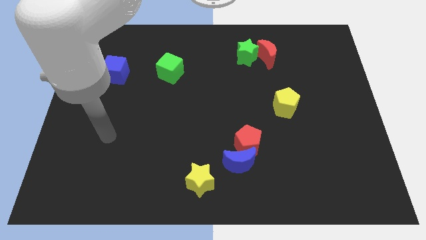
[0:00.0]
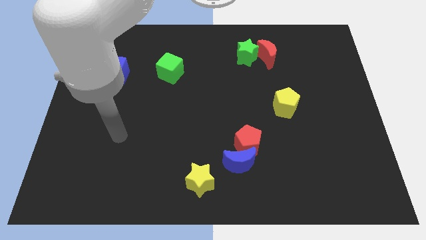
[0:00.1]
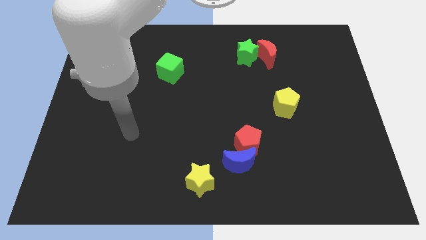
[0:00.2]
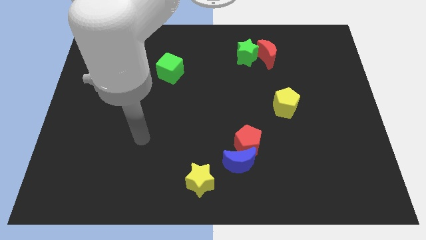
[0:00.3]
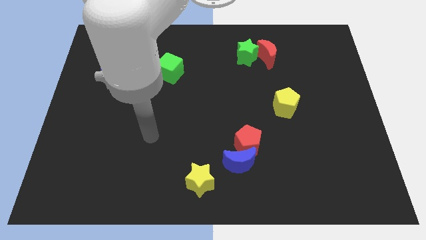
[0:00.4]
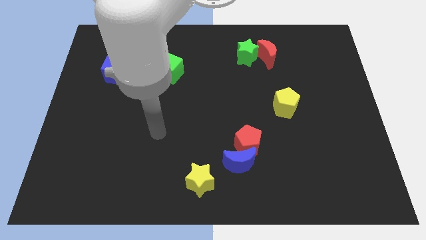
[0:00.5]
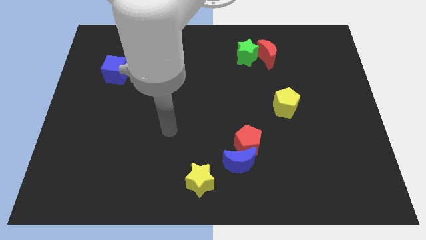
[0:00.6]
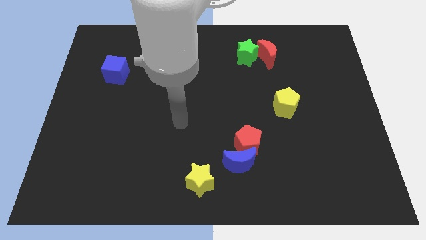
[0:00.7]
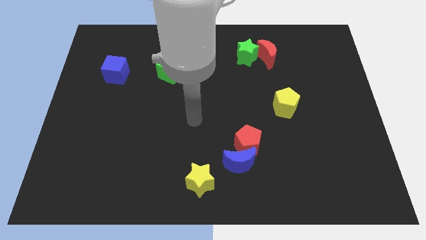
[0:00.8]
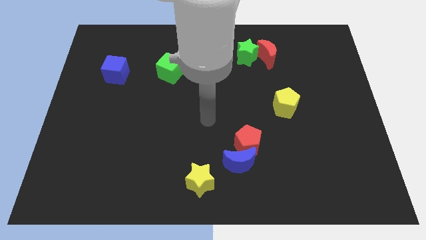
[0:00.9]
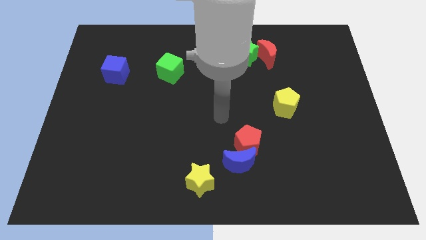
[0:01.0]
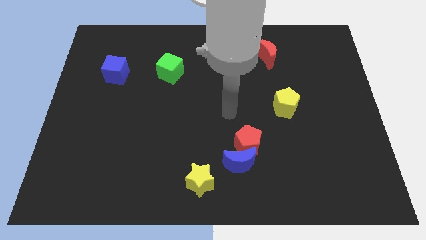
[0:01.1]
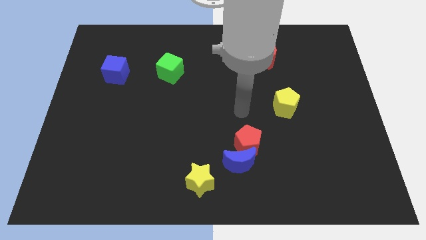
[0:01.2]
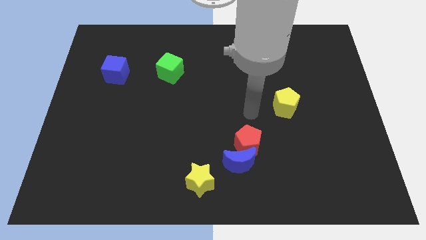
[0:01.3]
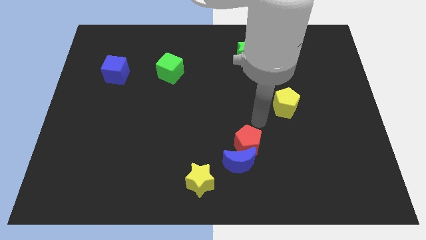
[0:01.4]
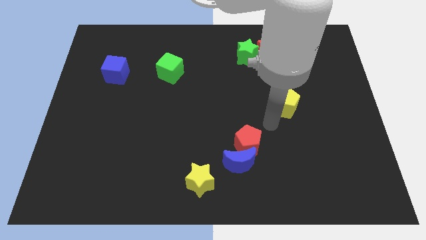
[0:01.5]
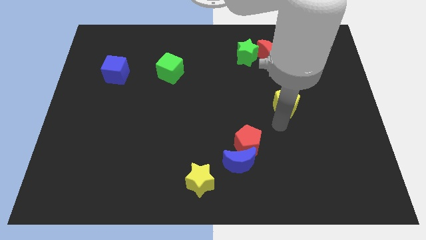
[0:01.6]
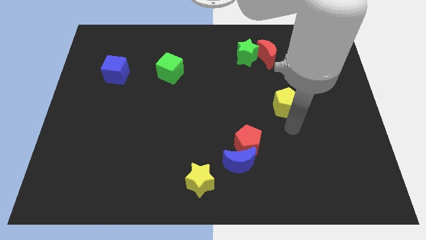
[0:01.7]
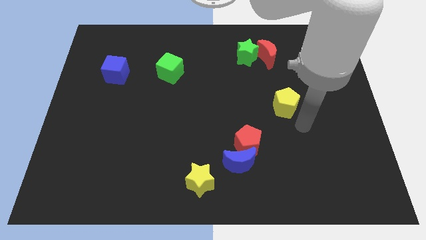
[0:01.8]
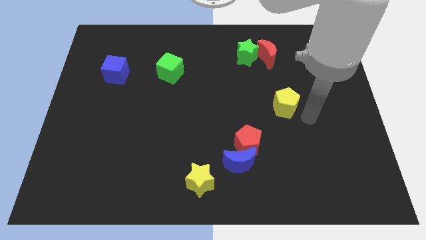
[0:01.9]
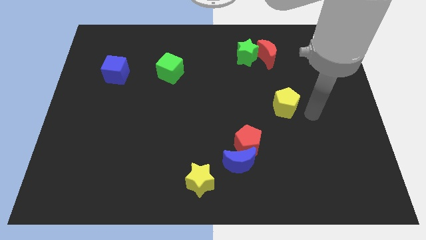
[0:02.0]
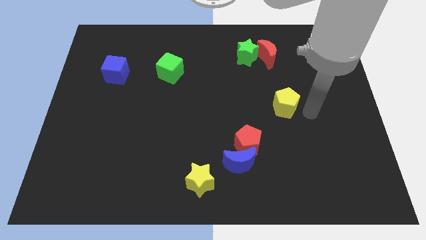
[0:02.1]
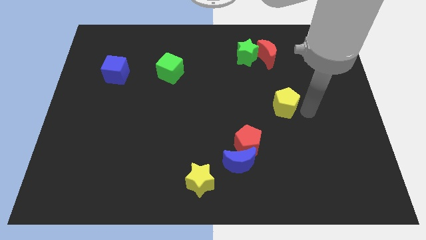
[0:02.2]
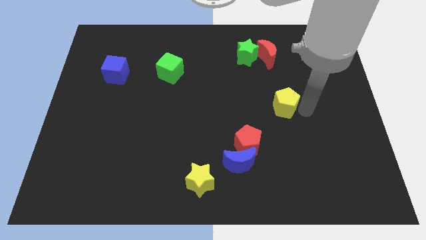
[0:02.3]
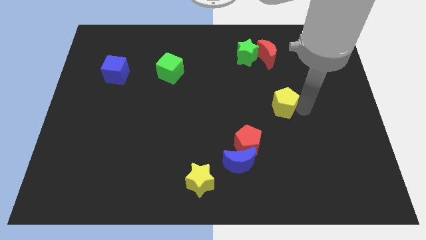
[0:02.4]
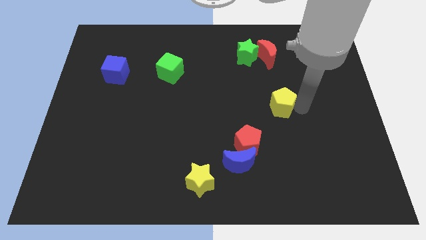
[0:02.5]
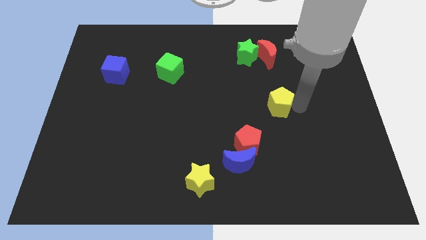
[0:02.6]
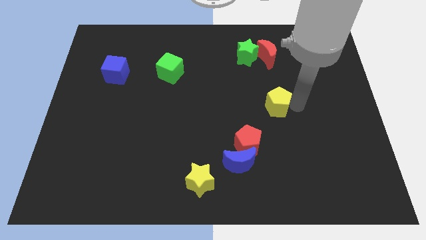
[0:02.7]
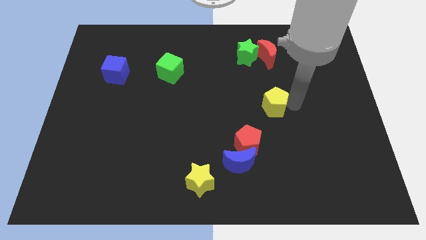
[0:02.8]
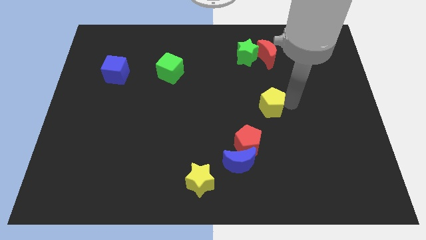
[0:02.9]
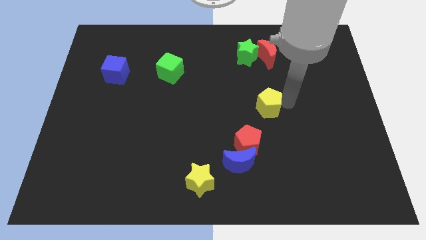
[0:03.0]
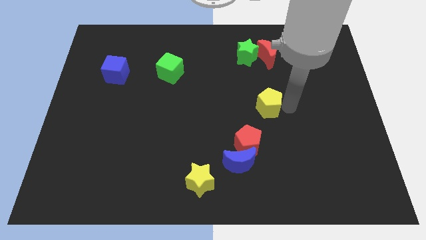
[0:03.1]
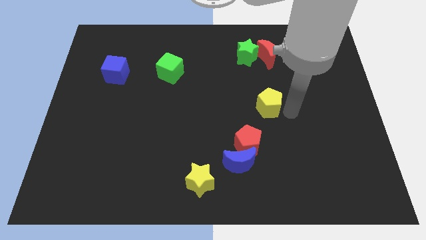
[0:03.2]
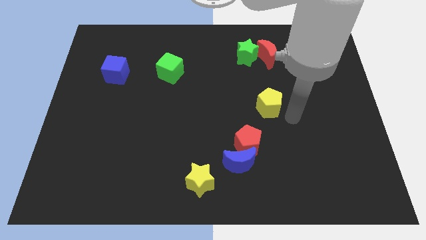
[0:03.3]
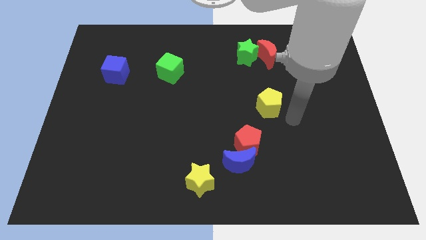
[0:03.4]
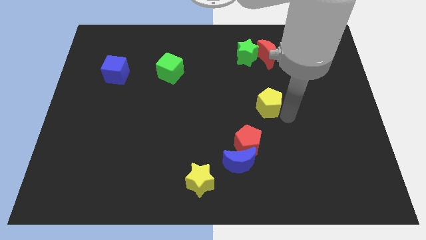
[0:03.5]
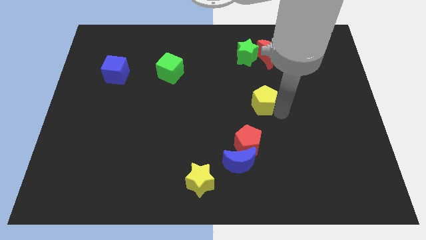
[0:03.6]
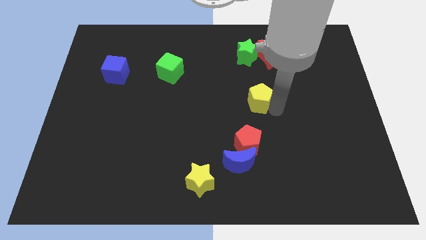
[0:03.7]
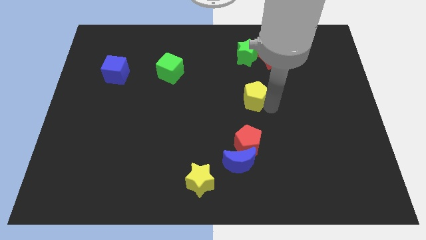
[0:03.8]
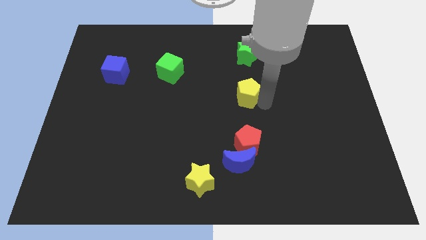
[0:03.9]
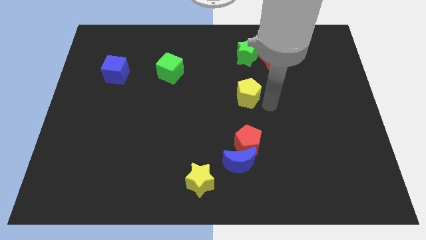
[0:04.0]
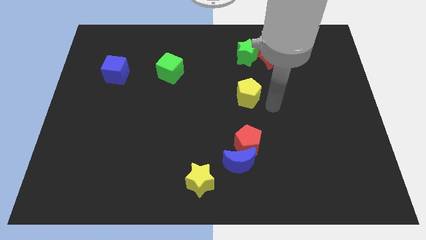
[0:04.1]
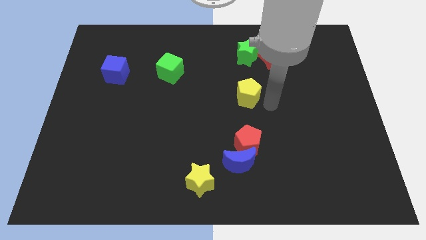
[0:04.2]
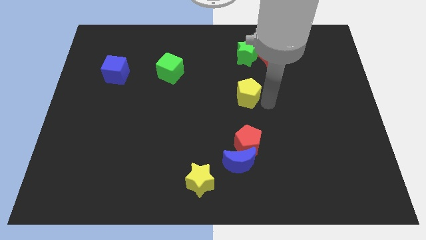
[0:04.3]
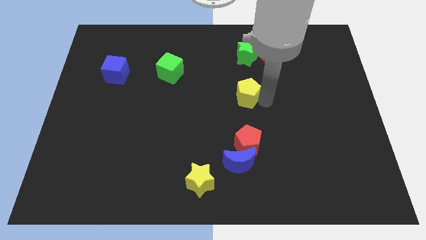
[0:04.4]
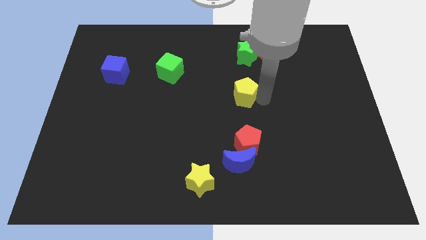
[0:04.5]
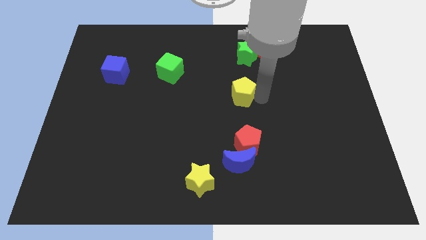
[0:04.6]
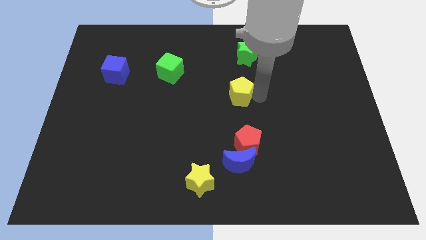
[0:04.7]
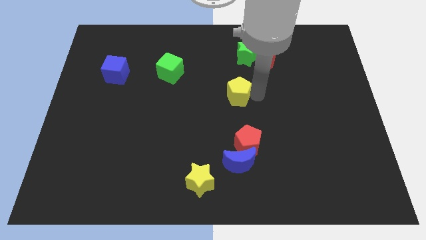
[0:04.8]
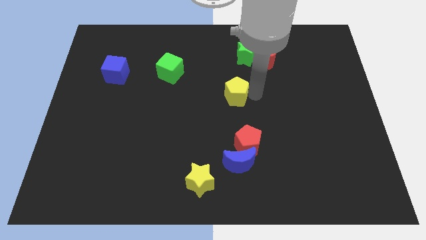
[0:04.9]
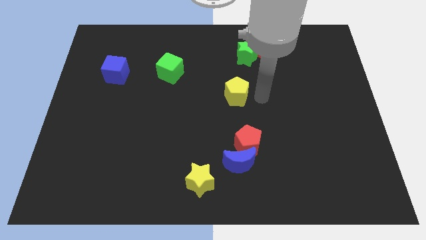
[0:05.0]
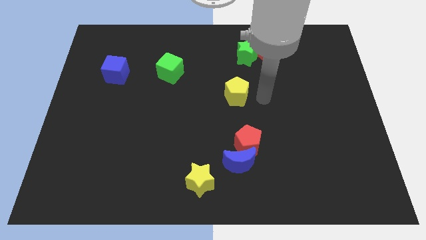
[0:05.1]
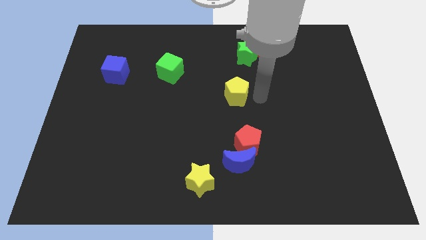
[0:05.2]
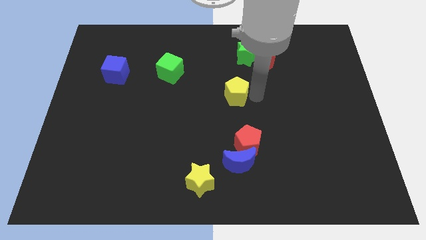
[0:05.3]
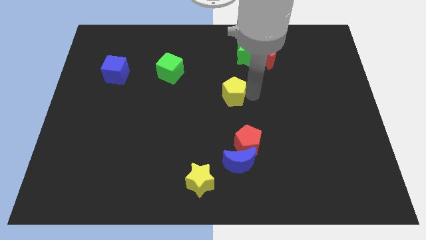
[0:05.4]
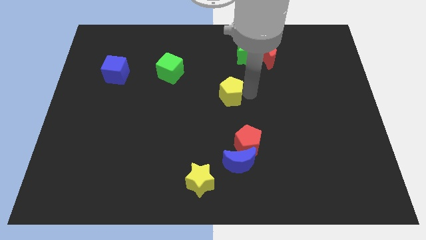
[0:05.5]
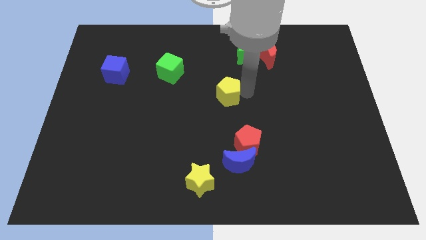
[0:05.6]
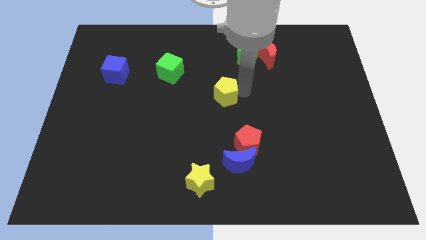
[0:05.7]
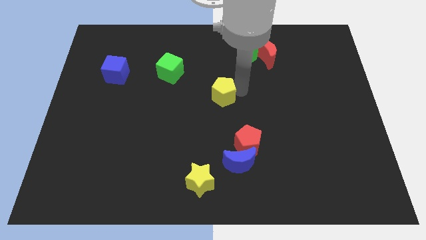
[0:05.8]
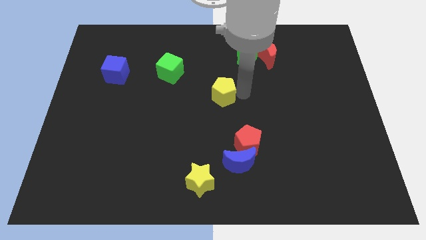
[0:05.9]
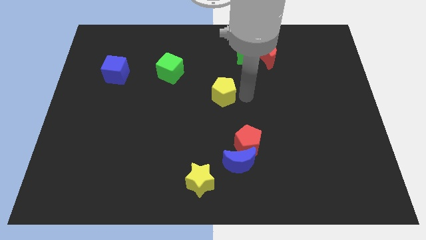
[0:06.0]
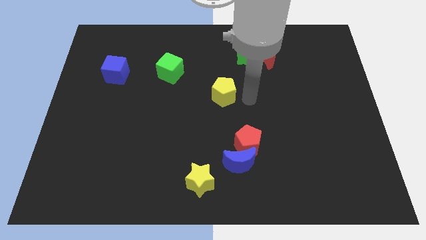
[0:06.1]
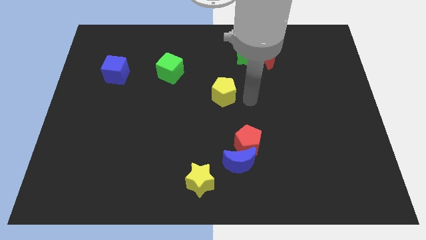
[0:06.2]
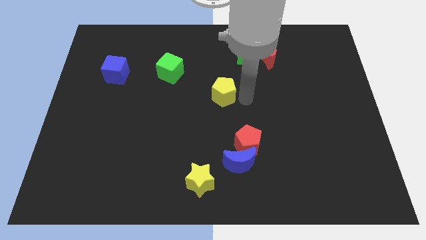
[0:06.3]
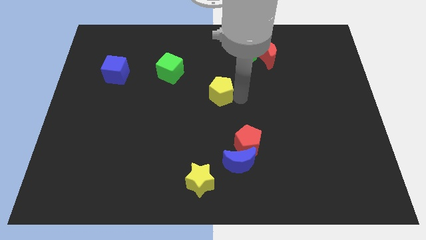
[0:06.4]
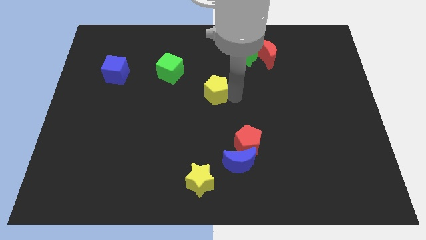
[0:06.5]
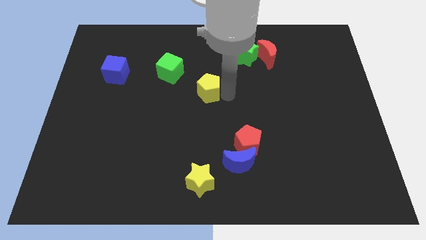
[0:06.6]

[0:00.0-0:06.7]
slide the yellow pentagon to the bottom right side of the green cube
